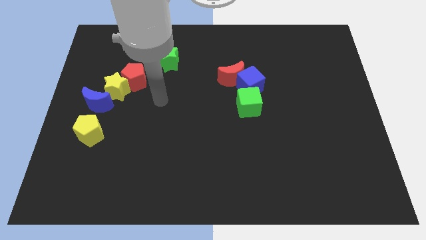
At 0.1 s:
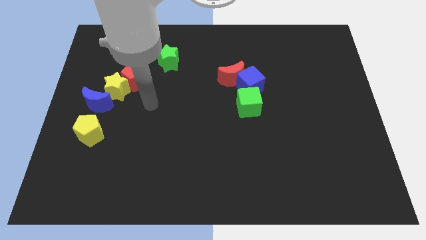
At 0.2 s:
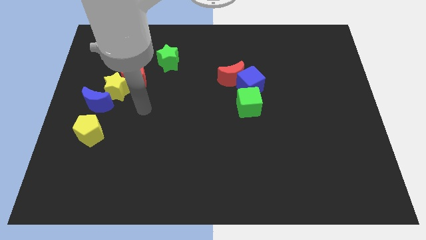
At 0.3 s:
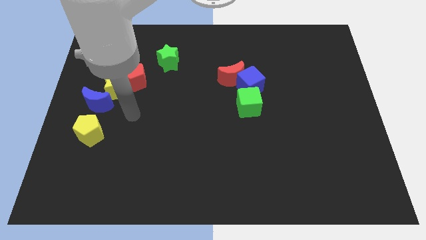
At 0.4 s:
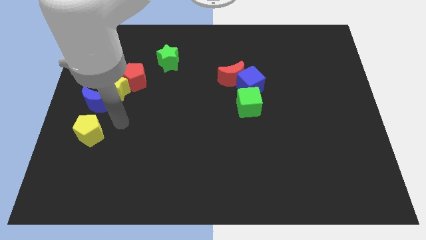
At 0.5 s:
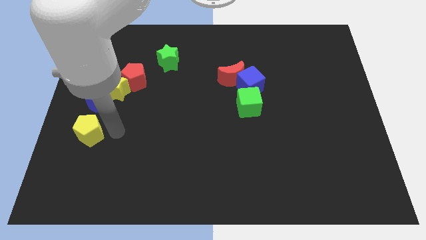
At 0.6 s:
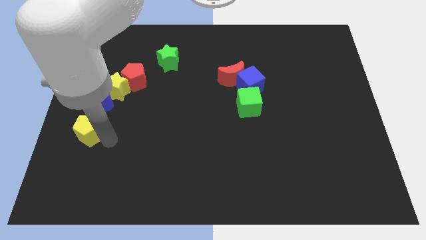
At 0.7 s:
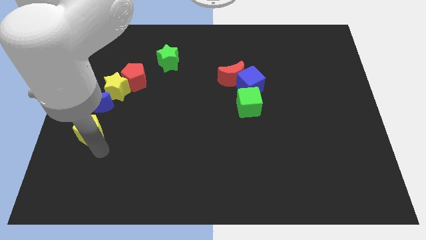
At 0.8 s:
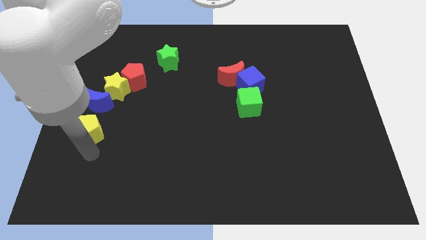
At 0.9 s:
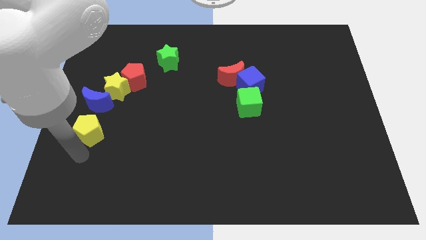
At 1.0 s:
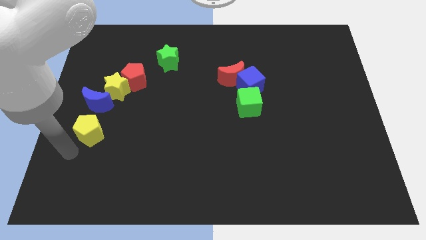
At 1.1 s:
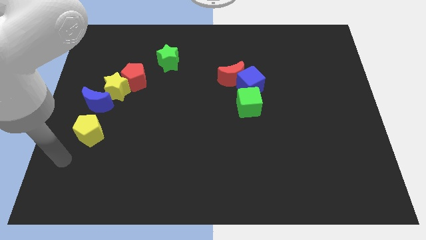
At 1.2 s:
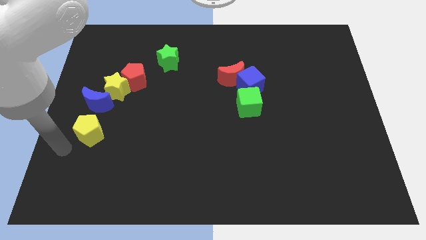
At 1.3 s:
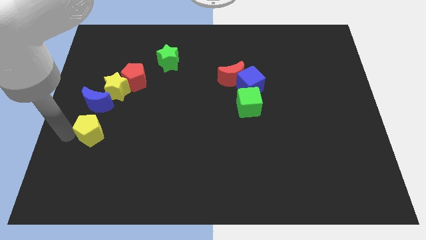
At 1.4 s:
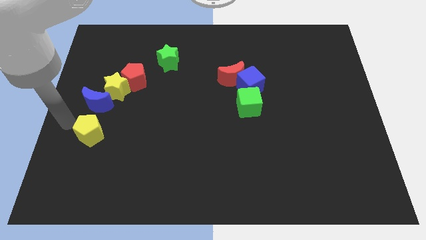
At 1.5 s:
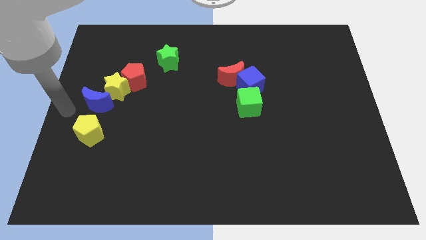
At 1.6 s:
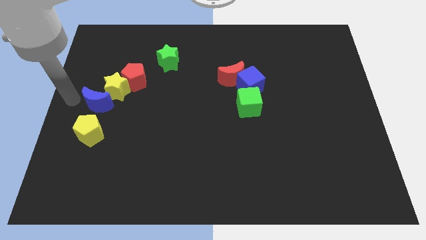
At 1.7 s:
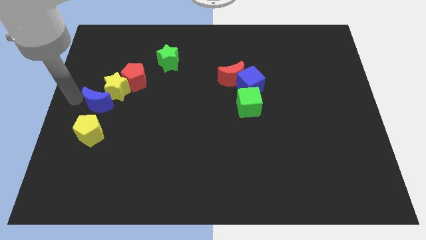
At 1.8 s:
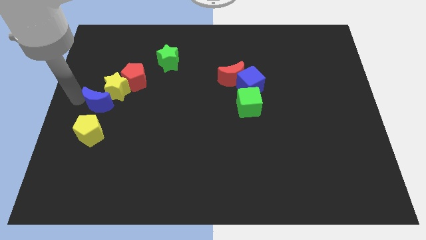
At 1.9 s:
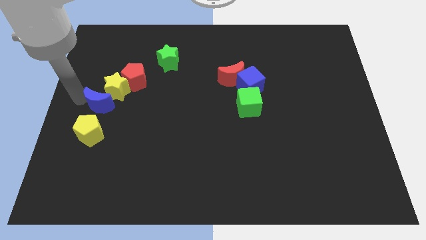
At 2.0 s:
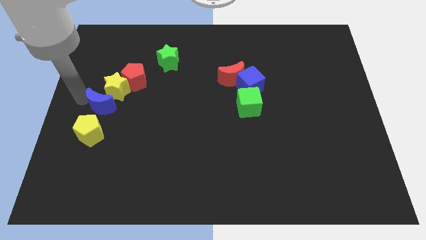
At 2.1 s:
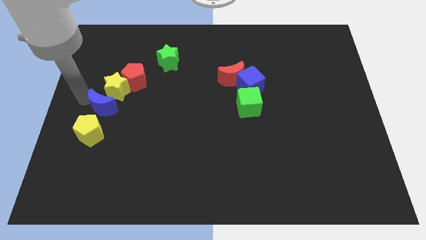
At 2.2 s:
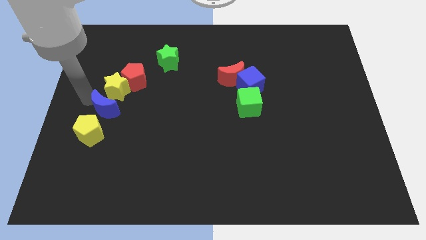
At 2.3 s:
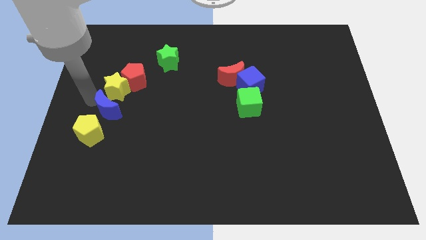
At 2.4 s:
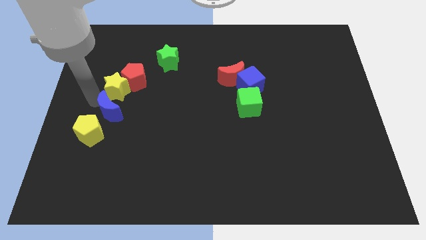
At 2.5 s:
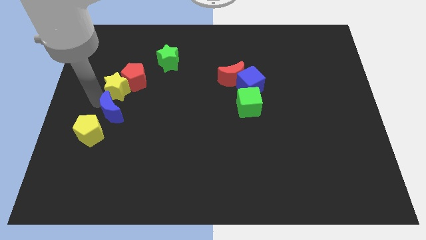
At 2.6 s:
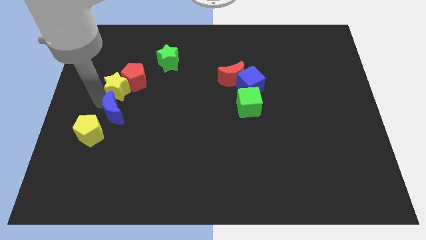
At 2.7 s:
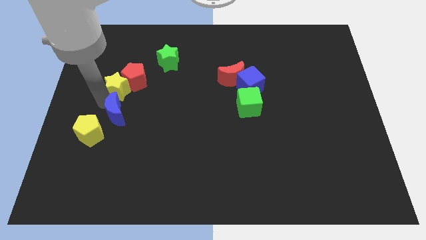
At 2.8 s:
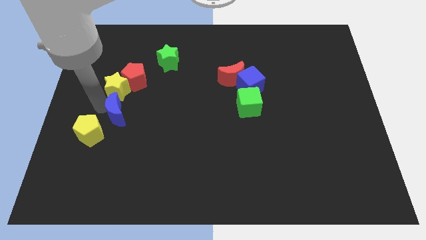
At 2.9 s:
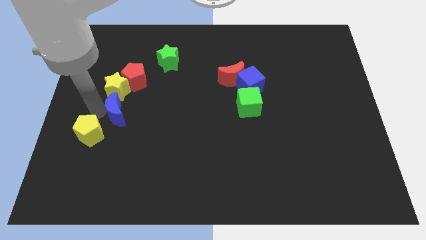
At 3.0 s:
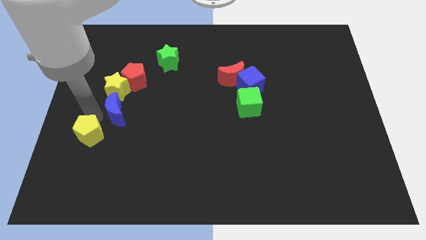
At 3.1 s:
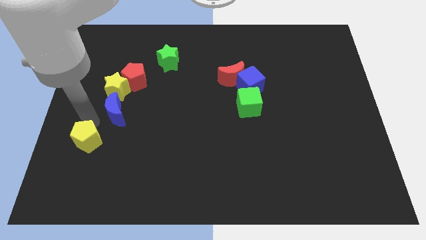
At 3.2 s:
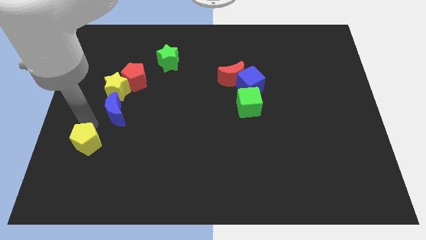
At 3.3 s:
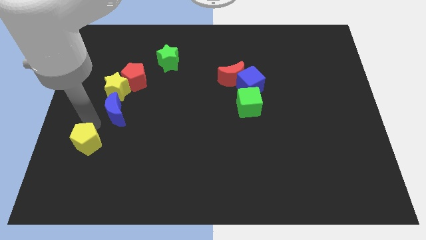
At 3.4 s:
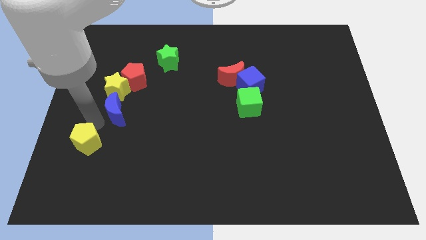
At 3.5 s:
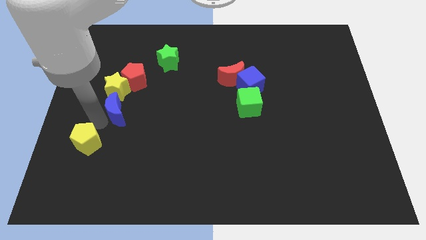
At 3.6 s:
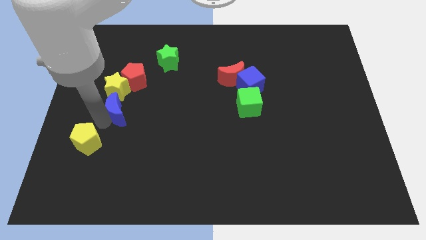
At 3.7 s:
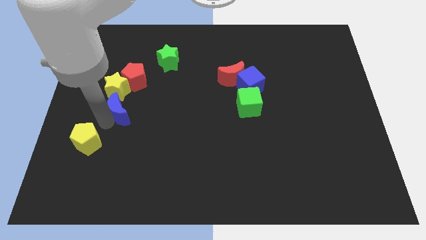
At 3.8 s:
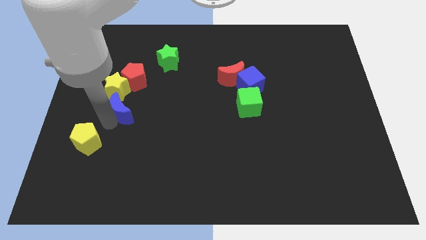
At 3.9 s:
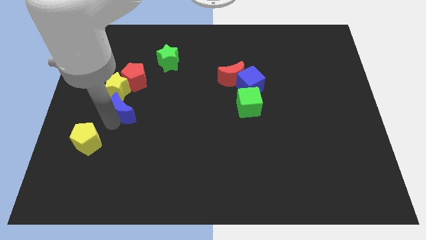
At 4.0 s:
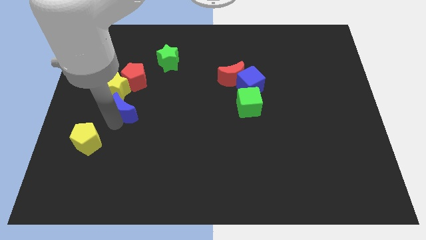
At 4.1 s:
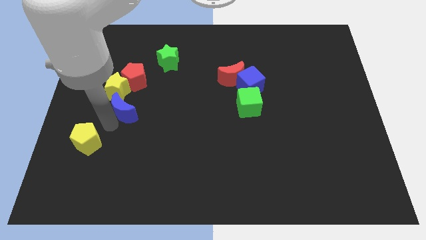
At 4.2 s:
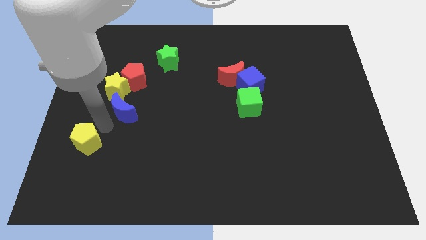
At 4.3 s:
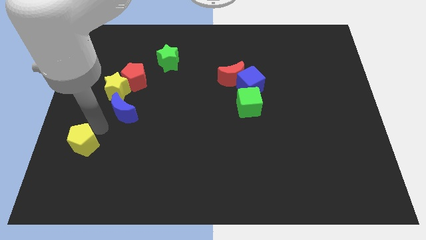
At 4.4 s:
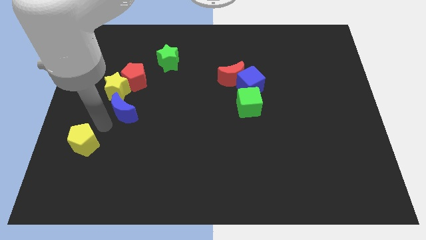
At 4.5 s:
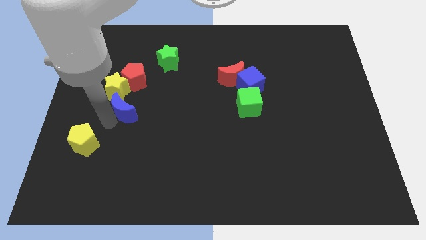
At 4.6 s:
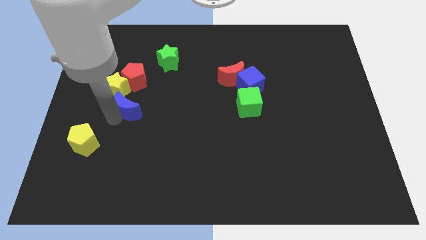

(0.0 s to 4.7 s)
move the blue moon to the right somewhat

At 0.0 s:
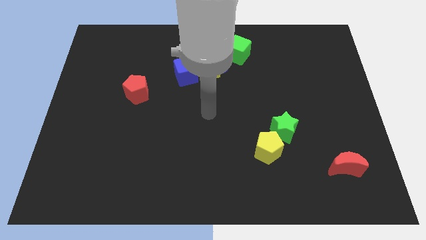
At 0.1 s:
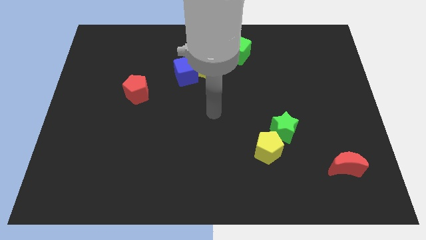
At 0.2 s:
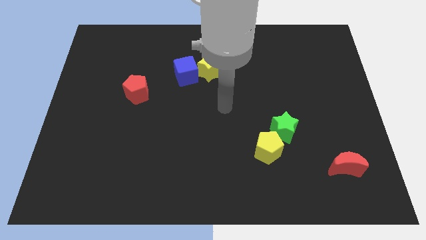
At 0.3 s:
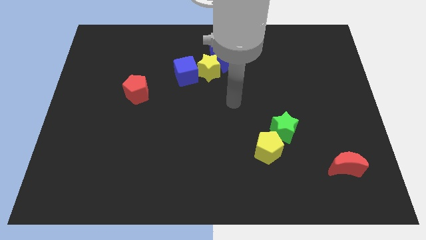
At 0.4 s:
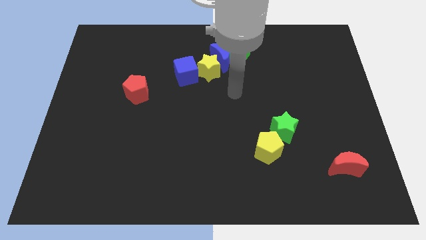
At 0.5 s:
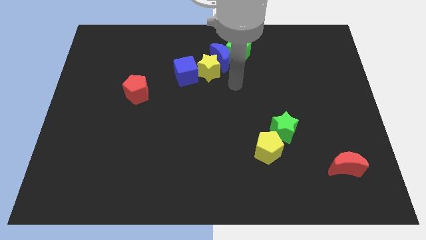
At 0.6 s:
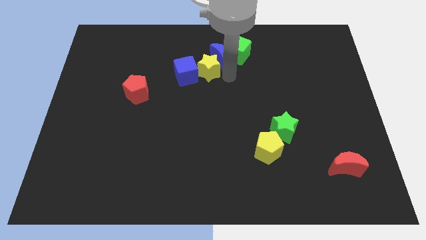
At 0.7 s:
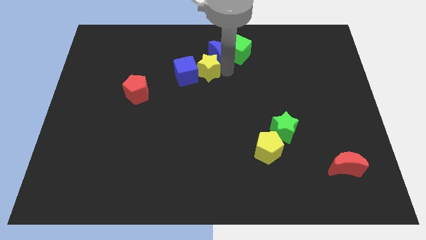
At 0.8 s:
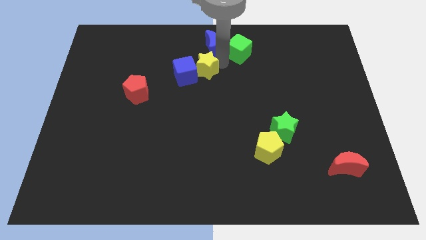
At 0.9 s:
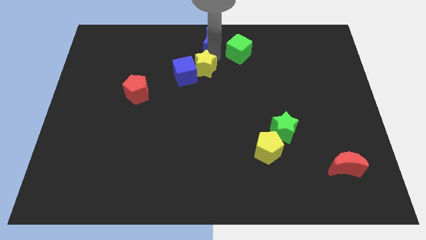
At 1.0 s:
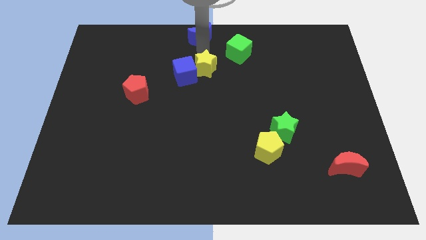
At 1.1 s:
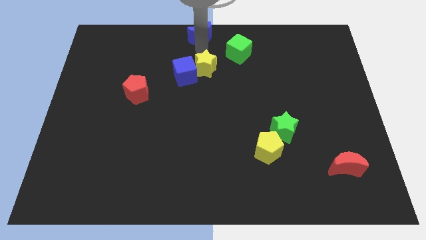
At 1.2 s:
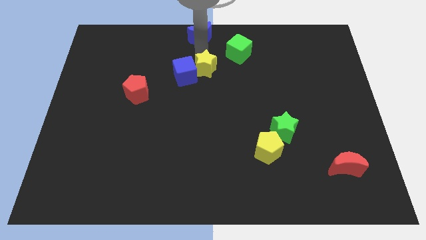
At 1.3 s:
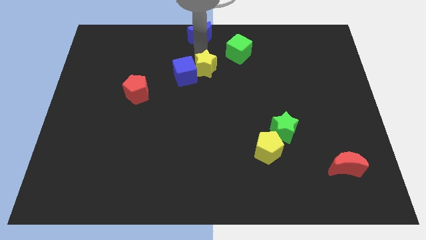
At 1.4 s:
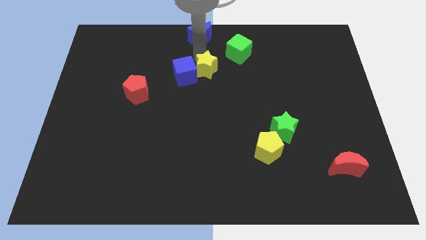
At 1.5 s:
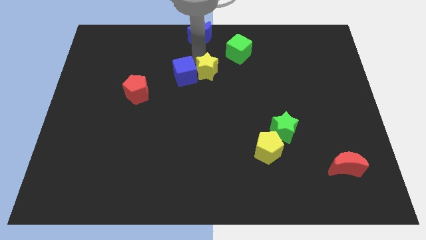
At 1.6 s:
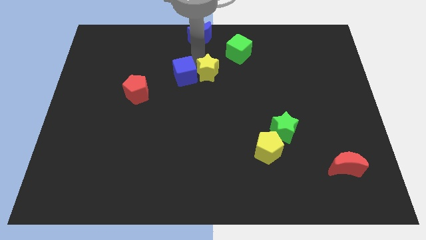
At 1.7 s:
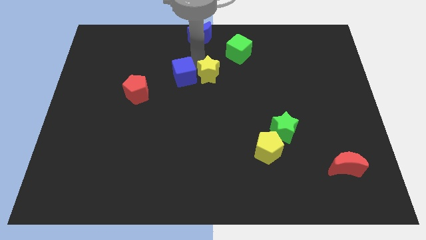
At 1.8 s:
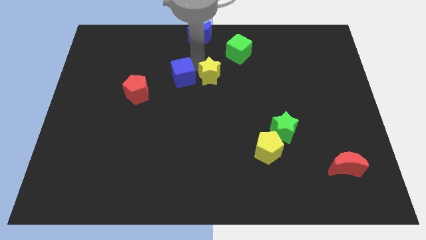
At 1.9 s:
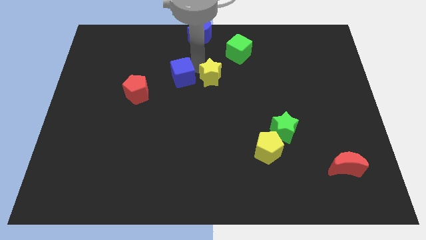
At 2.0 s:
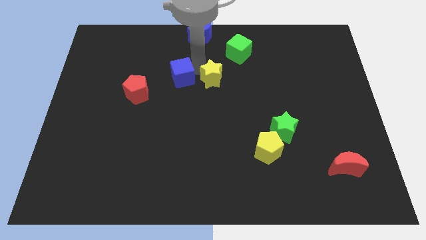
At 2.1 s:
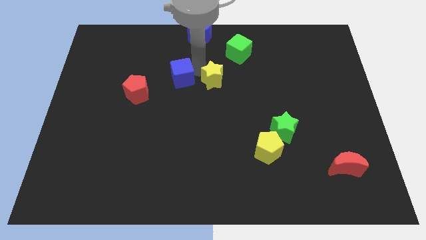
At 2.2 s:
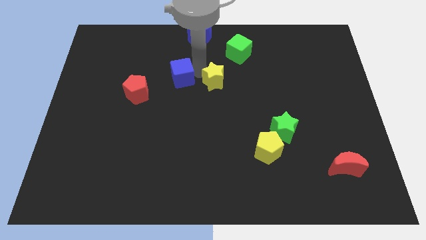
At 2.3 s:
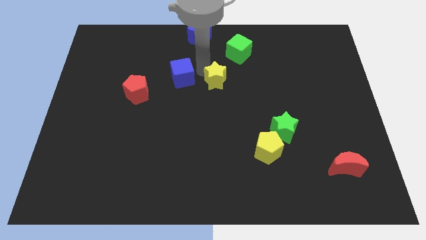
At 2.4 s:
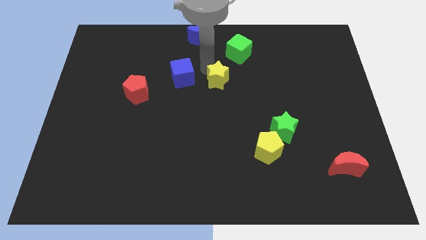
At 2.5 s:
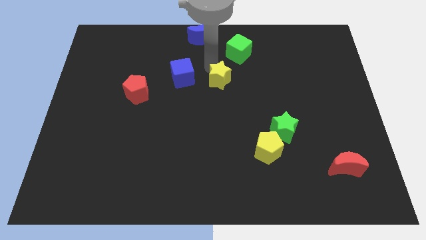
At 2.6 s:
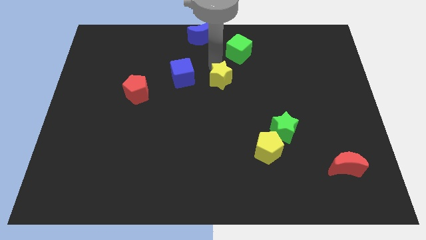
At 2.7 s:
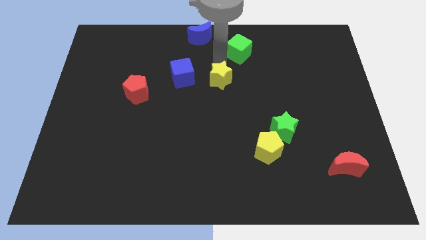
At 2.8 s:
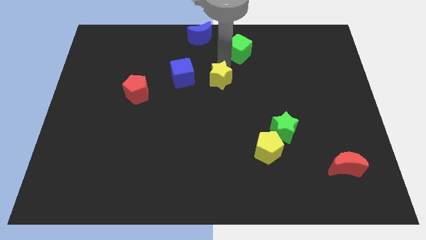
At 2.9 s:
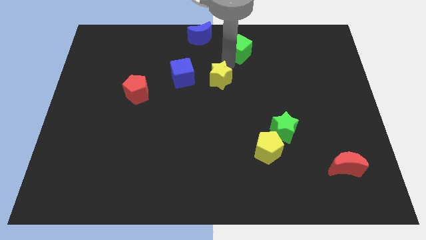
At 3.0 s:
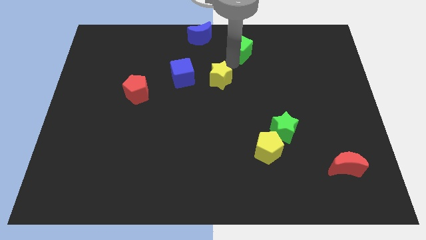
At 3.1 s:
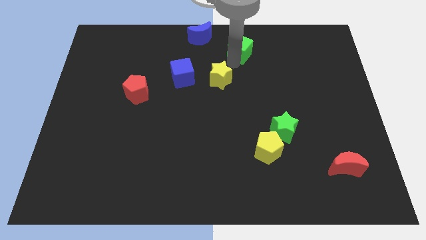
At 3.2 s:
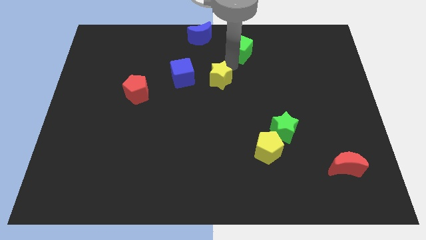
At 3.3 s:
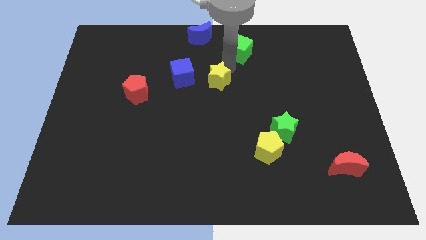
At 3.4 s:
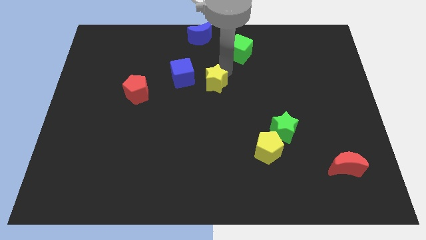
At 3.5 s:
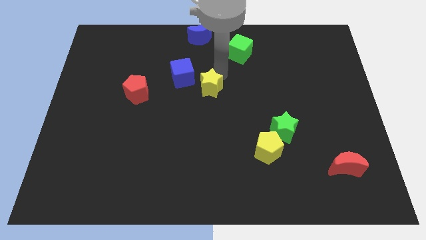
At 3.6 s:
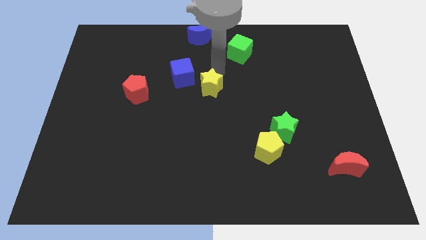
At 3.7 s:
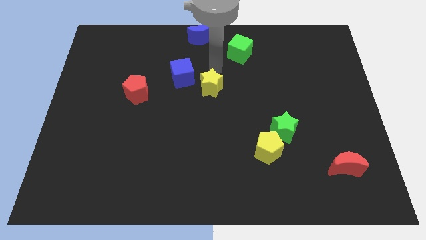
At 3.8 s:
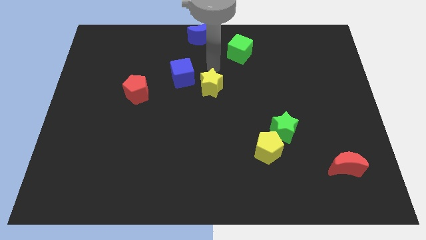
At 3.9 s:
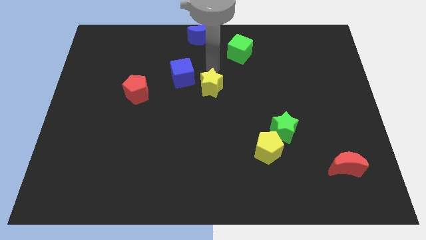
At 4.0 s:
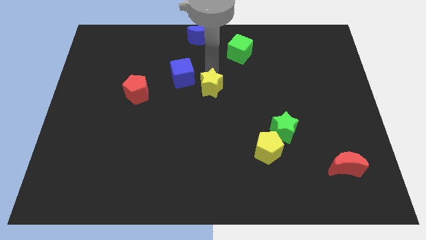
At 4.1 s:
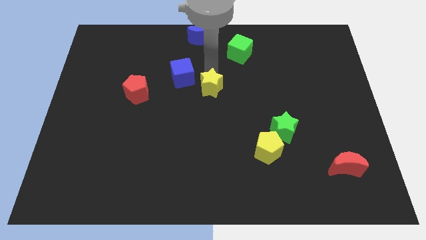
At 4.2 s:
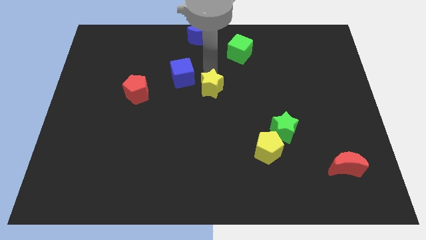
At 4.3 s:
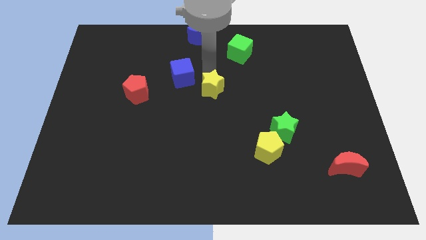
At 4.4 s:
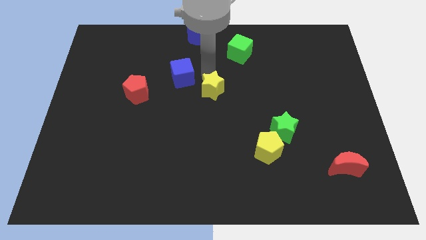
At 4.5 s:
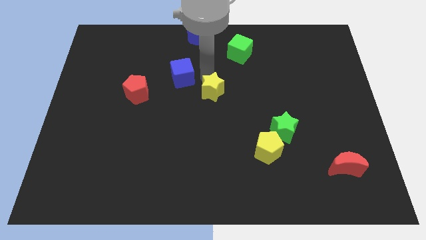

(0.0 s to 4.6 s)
slide the yellow star down a little
